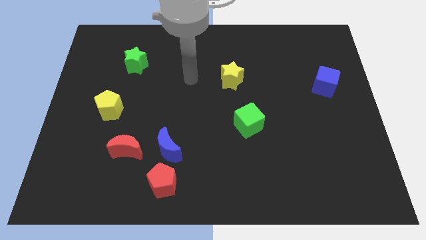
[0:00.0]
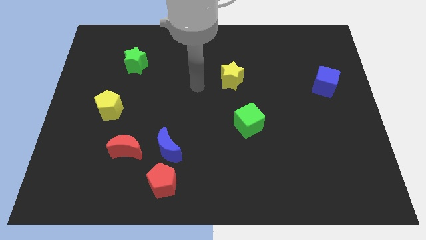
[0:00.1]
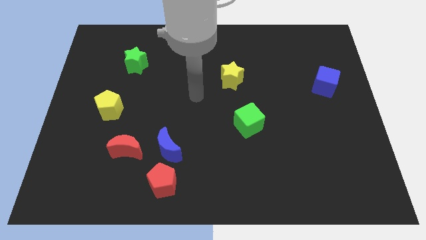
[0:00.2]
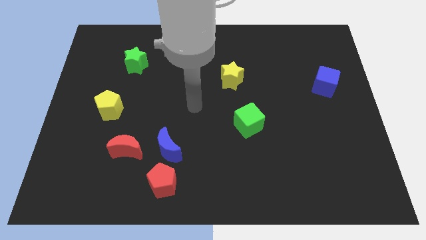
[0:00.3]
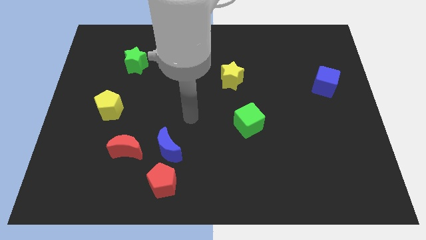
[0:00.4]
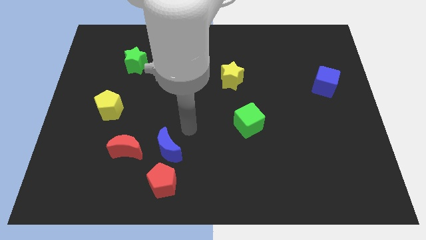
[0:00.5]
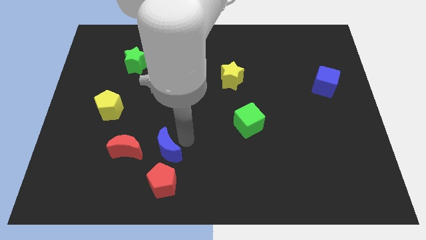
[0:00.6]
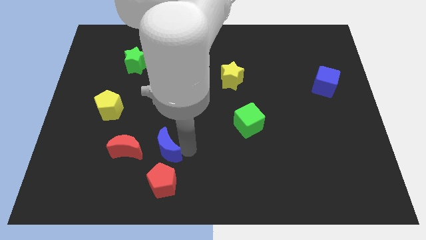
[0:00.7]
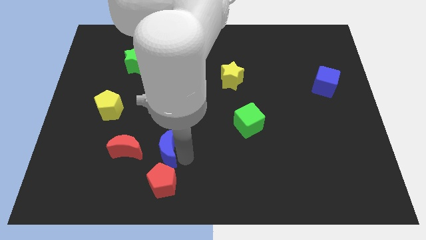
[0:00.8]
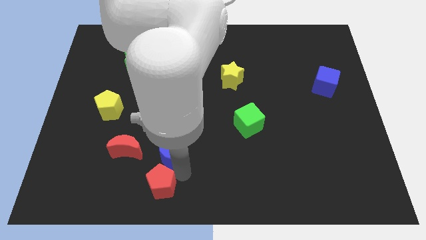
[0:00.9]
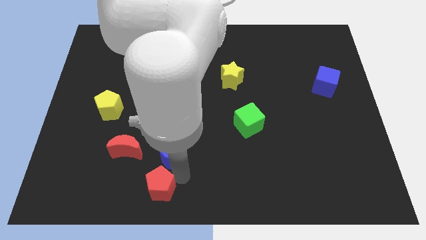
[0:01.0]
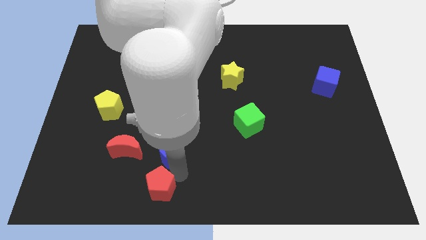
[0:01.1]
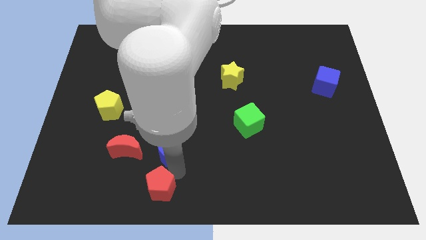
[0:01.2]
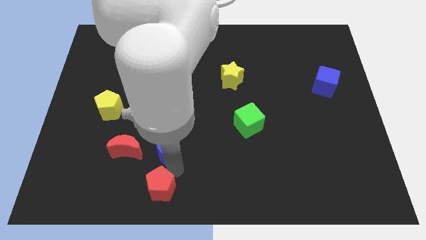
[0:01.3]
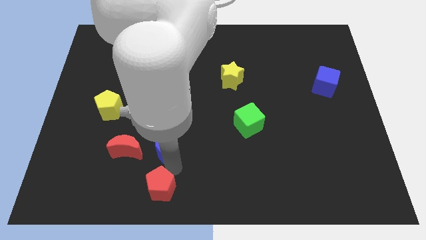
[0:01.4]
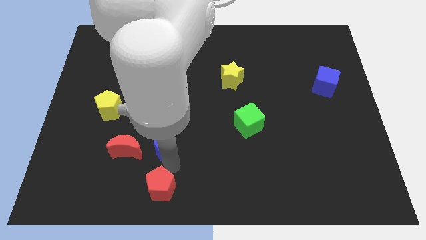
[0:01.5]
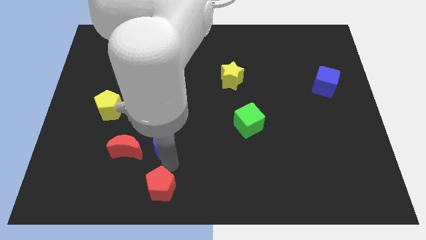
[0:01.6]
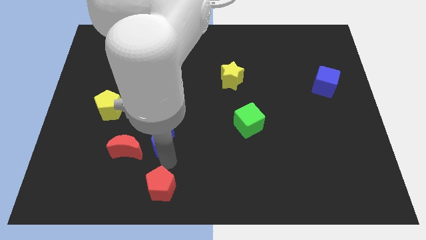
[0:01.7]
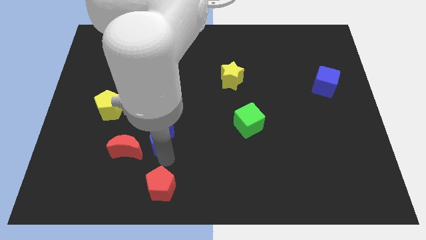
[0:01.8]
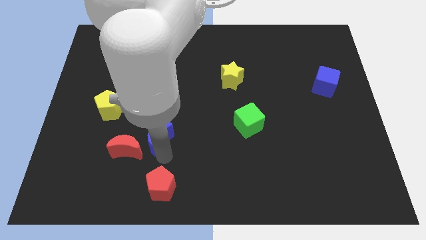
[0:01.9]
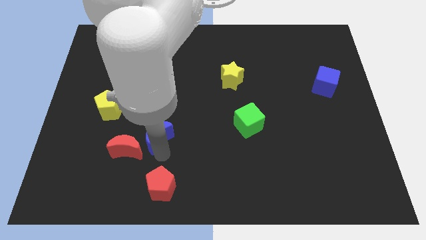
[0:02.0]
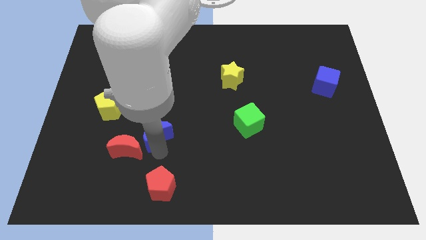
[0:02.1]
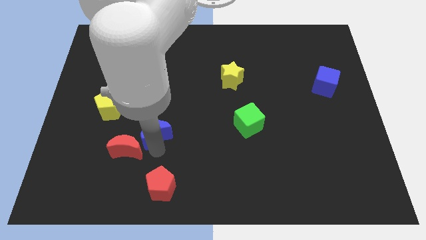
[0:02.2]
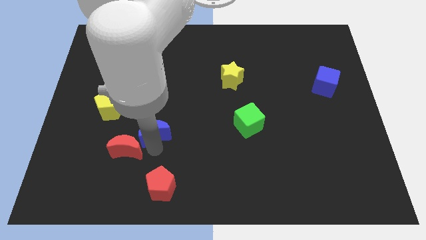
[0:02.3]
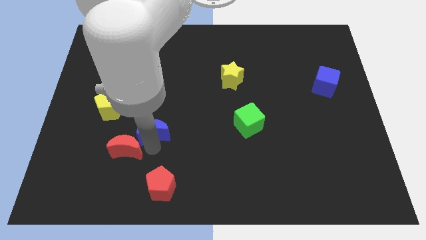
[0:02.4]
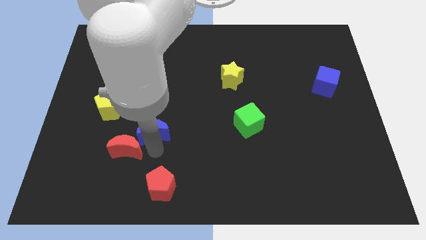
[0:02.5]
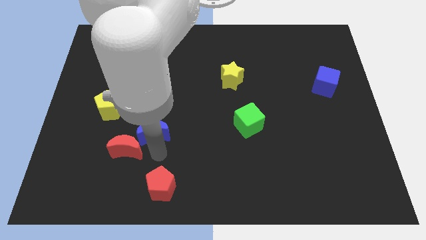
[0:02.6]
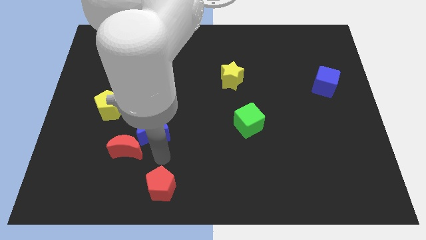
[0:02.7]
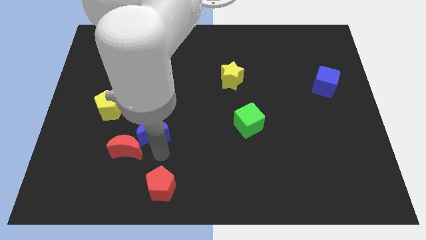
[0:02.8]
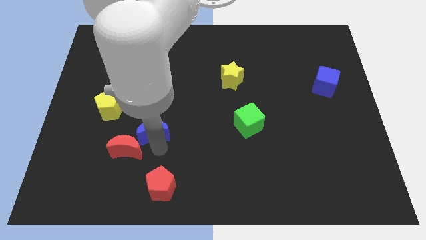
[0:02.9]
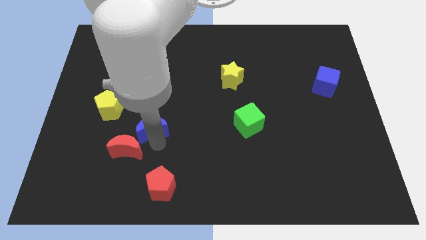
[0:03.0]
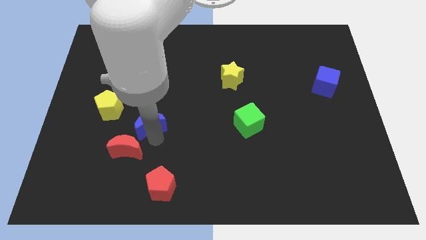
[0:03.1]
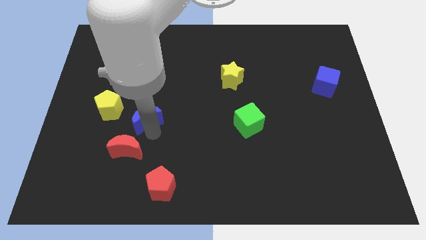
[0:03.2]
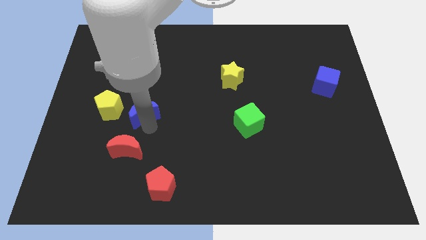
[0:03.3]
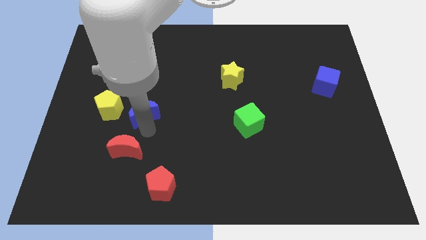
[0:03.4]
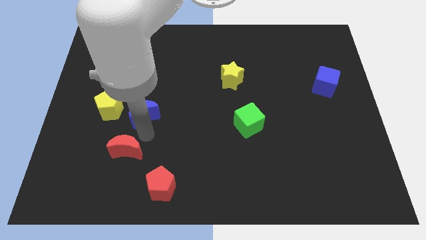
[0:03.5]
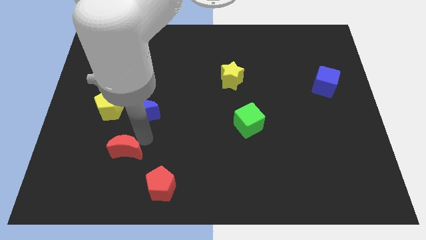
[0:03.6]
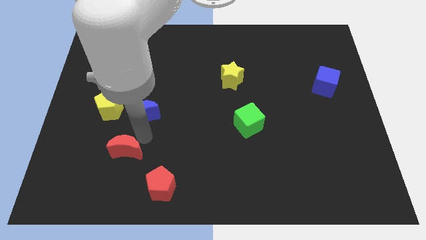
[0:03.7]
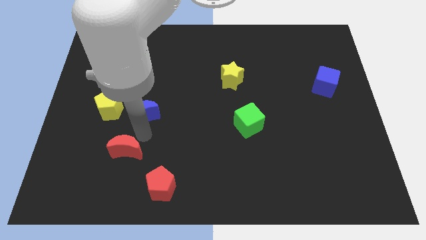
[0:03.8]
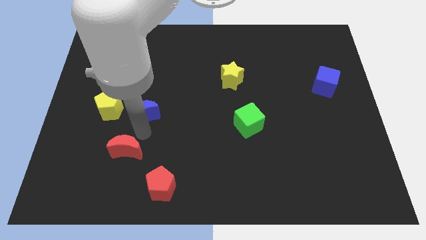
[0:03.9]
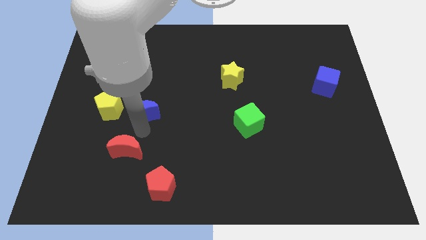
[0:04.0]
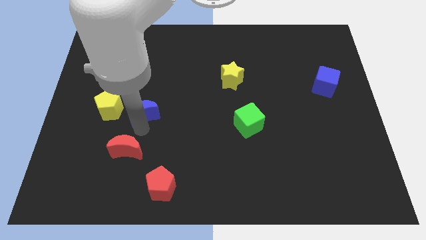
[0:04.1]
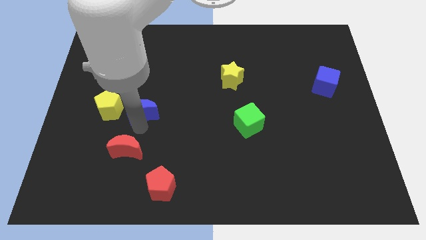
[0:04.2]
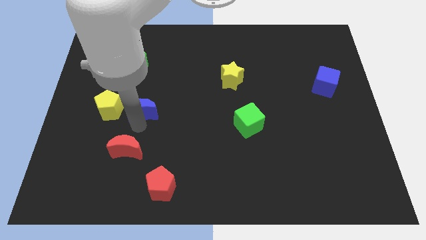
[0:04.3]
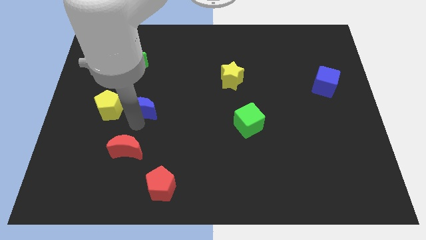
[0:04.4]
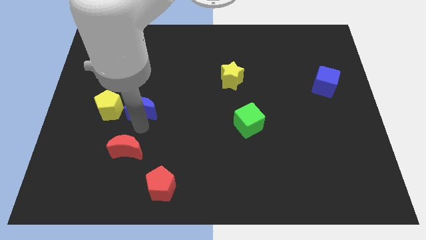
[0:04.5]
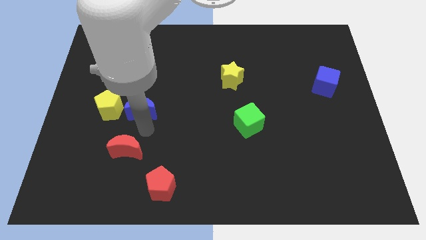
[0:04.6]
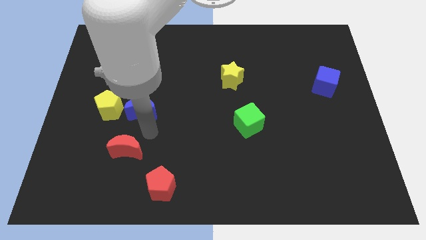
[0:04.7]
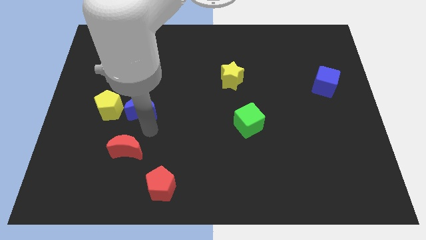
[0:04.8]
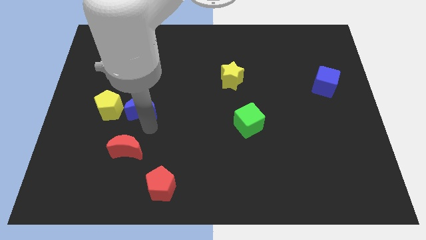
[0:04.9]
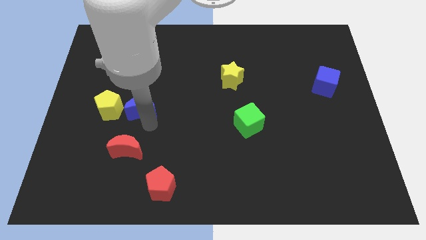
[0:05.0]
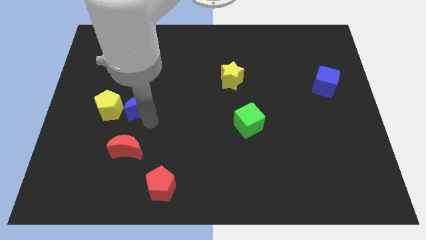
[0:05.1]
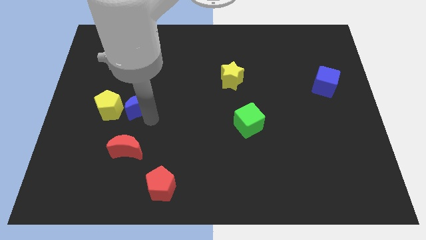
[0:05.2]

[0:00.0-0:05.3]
slide the blue moon diagonally up and to the right of the yellow pentagon

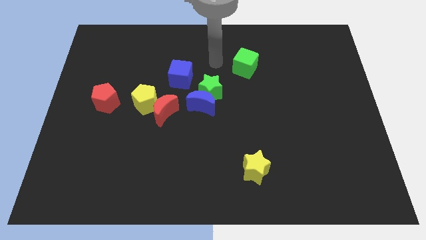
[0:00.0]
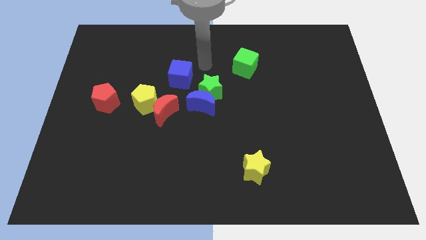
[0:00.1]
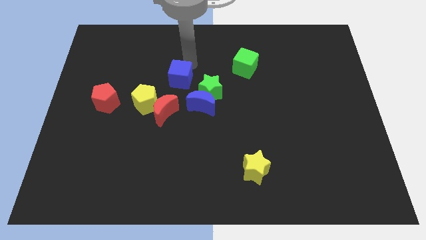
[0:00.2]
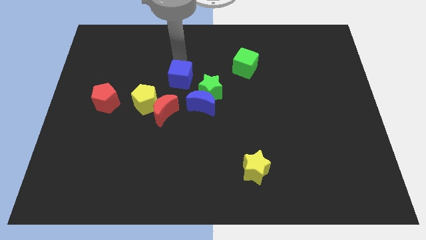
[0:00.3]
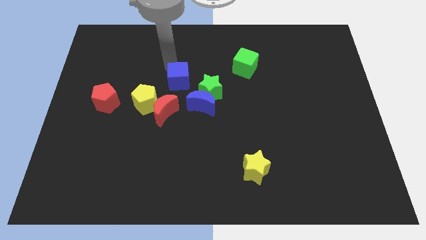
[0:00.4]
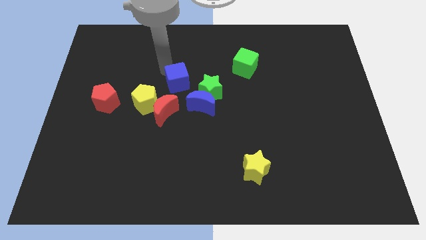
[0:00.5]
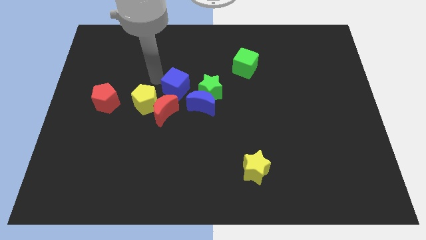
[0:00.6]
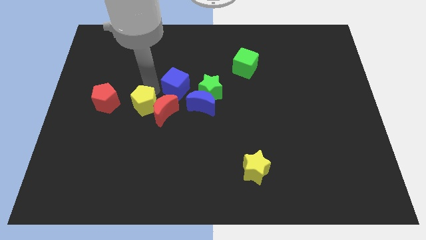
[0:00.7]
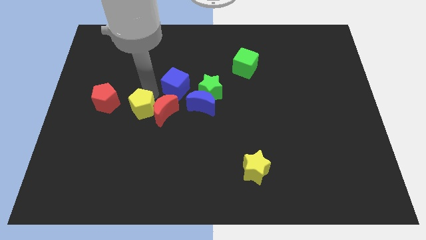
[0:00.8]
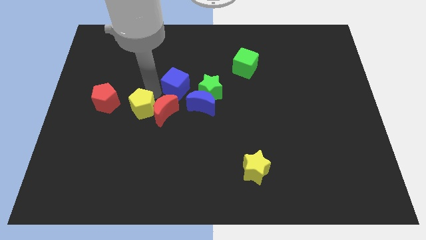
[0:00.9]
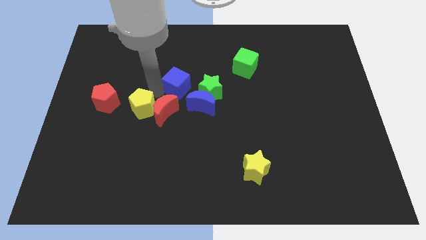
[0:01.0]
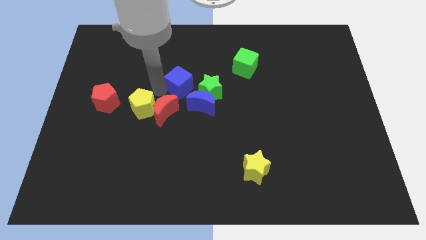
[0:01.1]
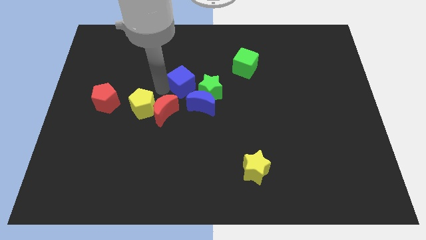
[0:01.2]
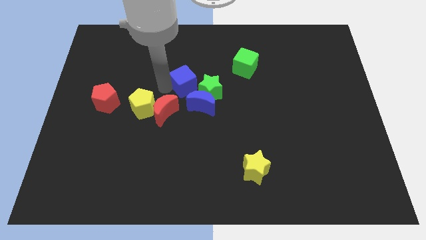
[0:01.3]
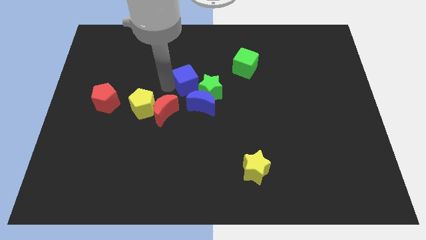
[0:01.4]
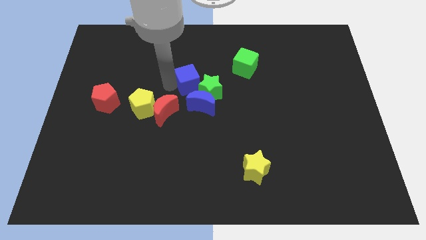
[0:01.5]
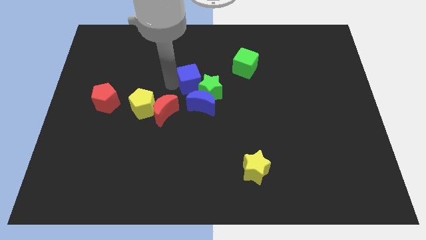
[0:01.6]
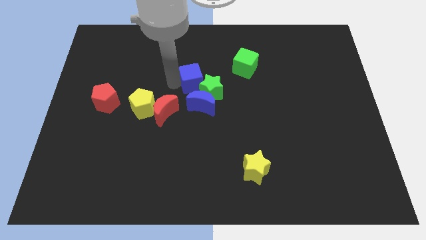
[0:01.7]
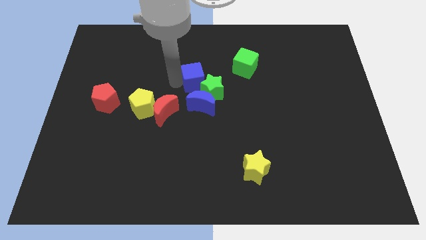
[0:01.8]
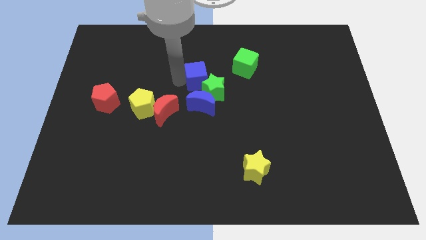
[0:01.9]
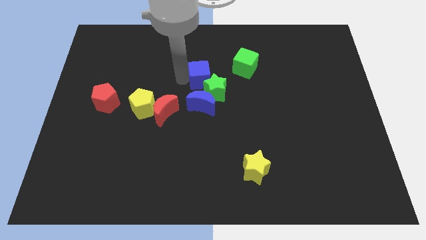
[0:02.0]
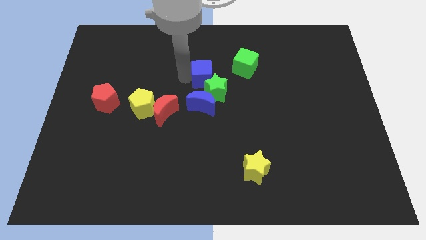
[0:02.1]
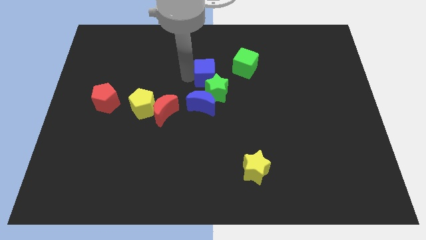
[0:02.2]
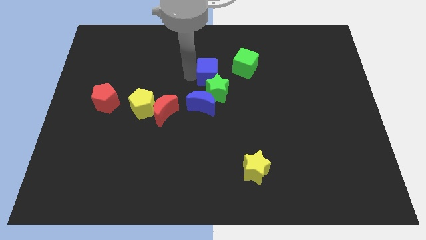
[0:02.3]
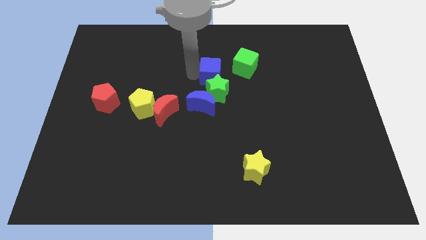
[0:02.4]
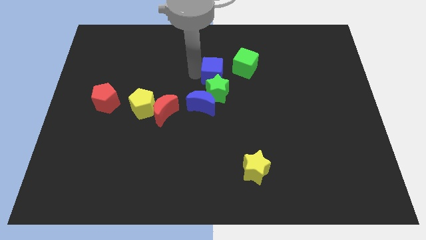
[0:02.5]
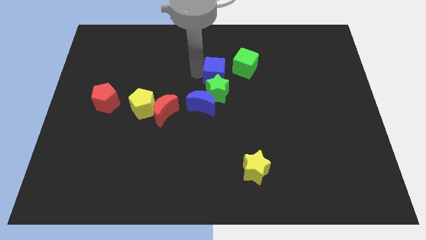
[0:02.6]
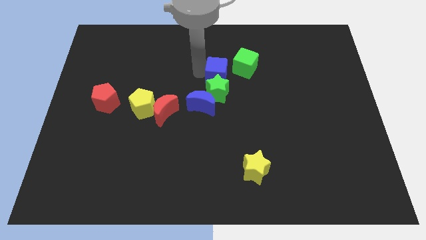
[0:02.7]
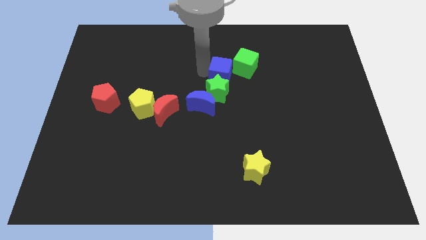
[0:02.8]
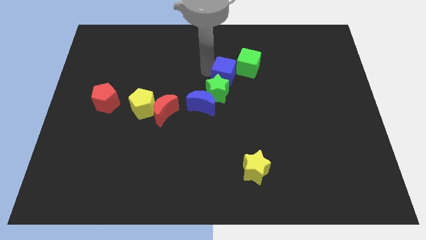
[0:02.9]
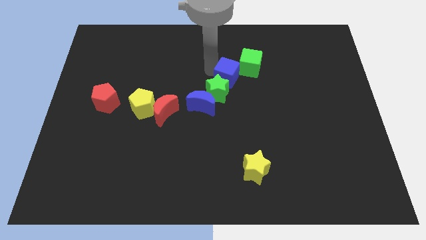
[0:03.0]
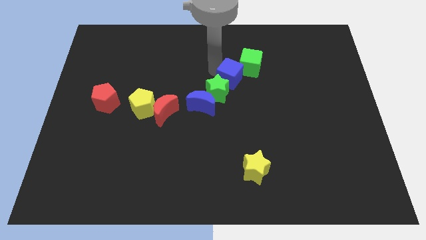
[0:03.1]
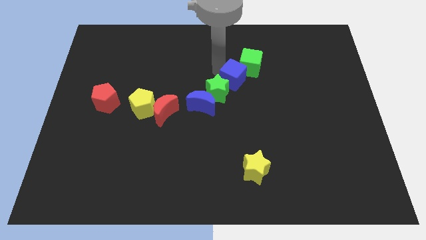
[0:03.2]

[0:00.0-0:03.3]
move the blue cube to the bottom side of the green cube
